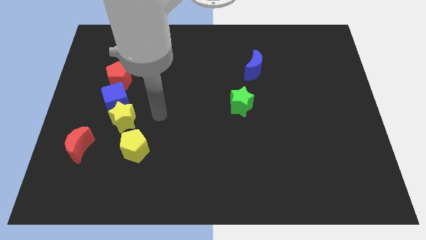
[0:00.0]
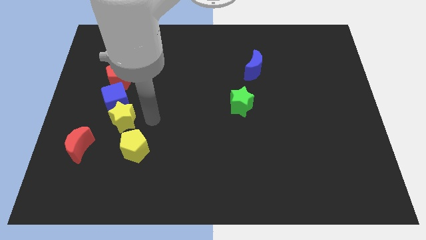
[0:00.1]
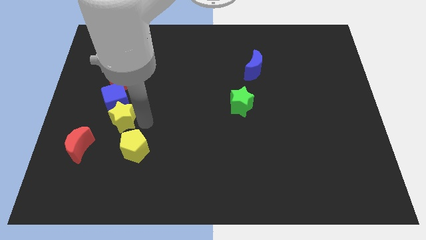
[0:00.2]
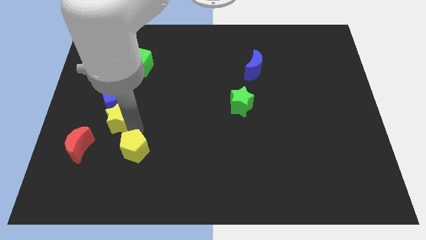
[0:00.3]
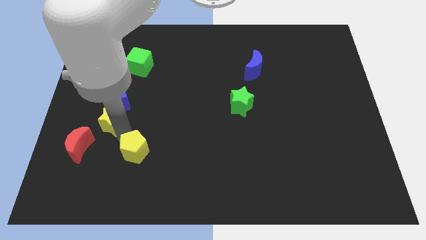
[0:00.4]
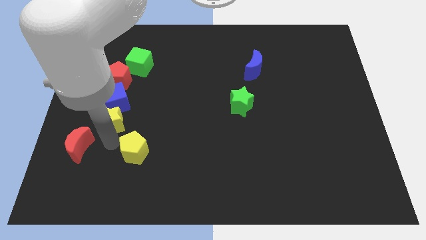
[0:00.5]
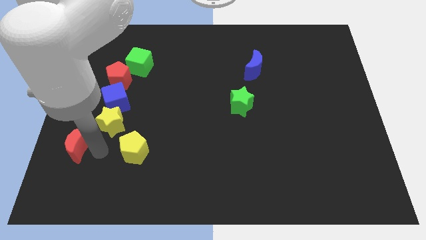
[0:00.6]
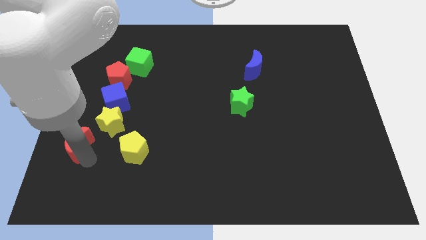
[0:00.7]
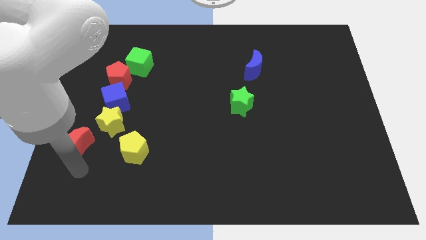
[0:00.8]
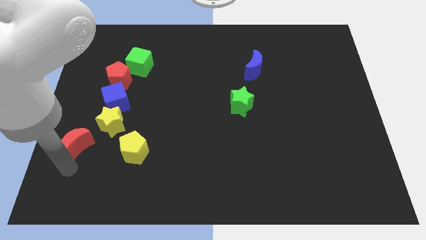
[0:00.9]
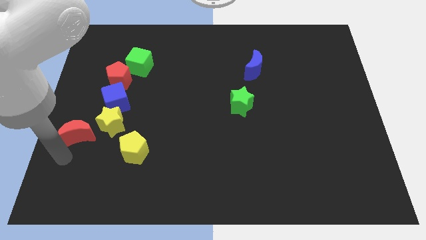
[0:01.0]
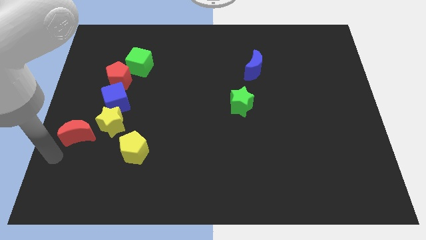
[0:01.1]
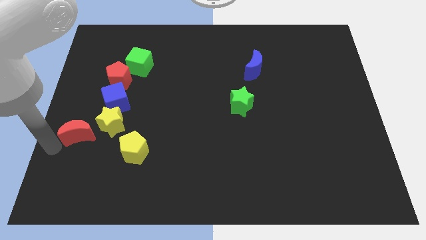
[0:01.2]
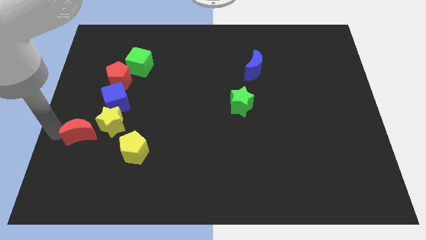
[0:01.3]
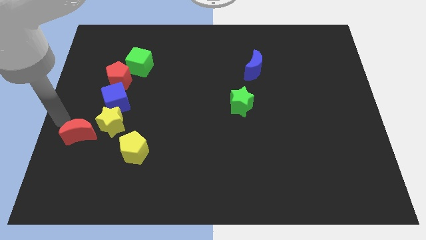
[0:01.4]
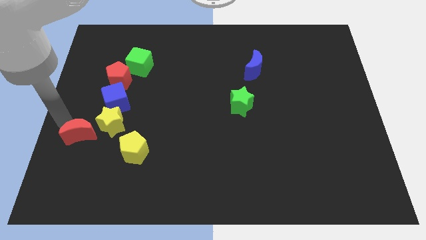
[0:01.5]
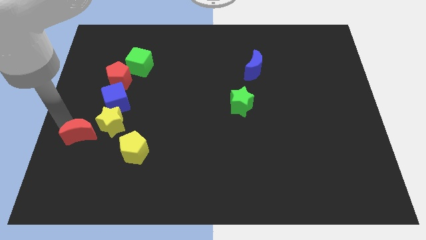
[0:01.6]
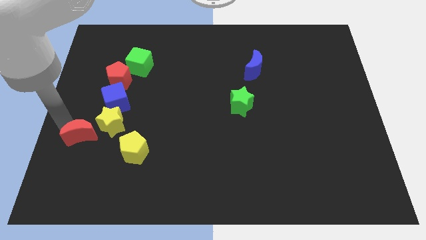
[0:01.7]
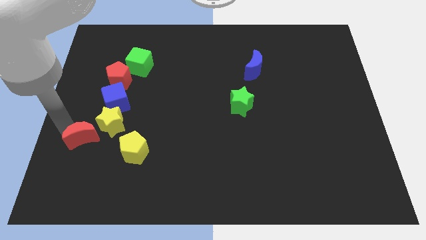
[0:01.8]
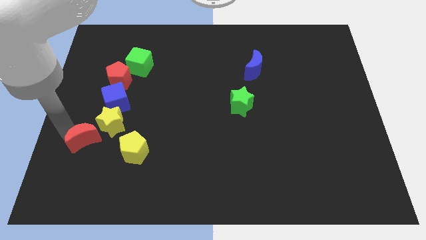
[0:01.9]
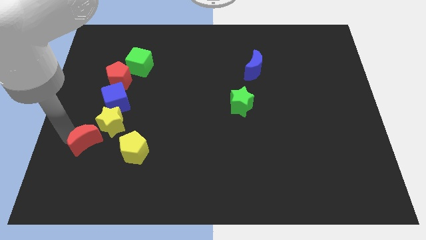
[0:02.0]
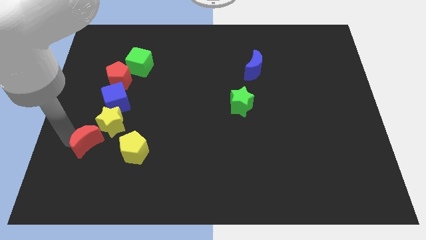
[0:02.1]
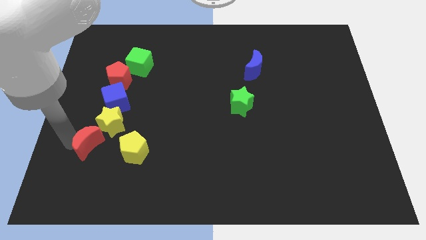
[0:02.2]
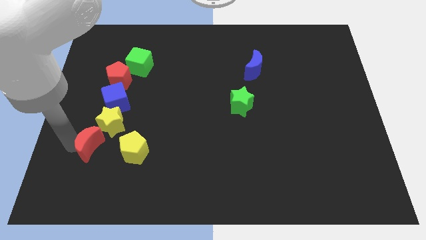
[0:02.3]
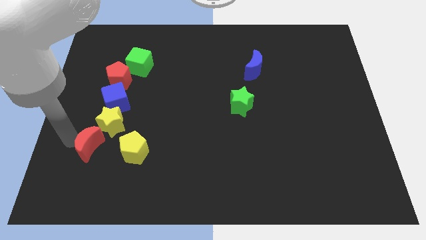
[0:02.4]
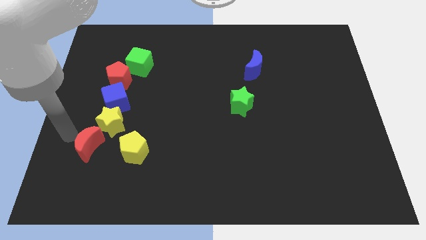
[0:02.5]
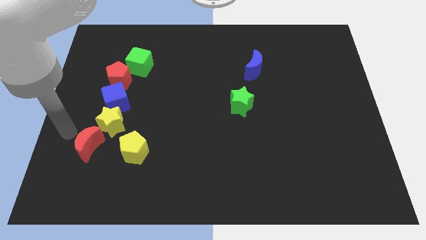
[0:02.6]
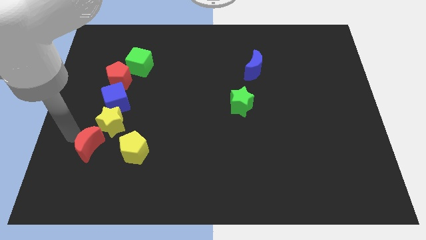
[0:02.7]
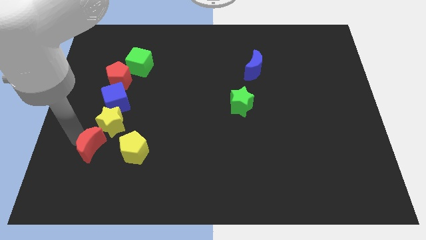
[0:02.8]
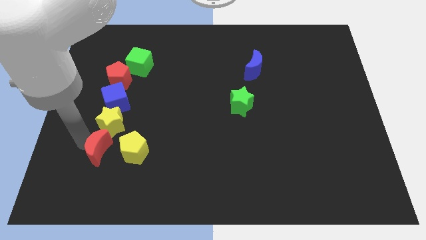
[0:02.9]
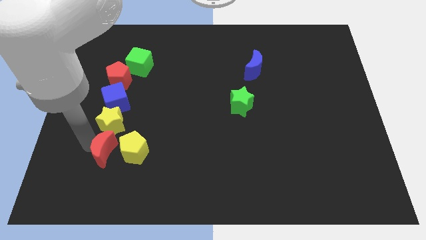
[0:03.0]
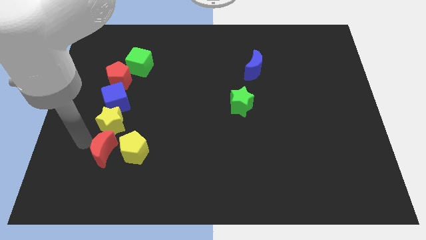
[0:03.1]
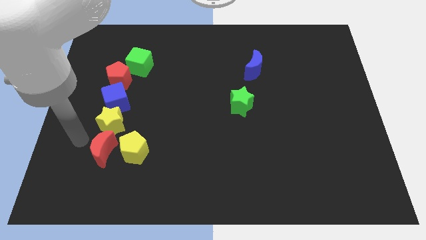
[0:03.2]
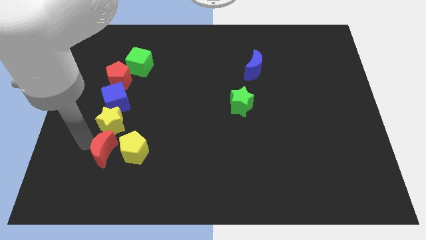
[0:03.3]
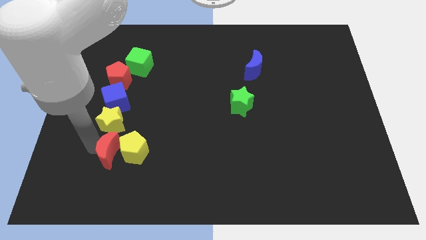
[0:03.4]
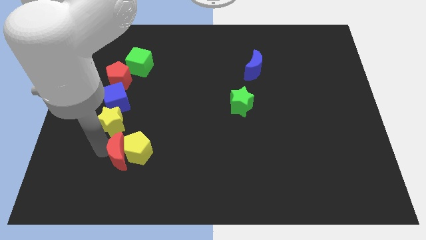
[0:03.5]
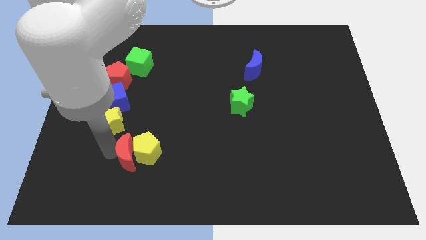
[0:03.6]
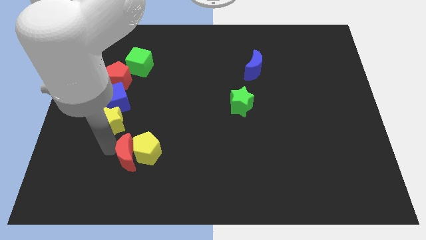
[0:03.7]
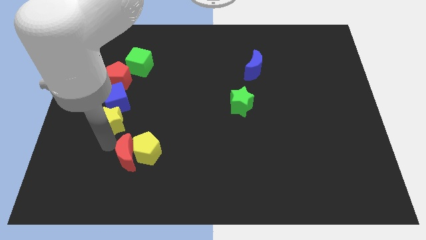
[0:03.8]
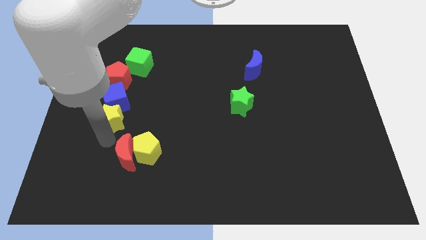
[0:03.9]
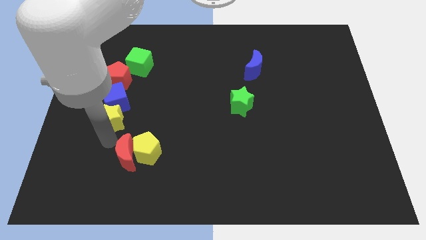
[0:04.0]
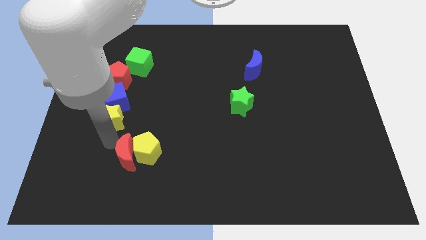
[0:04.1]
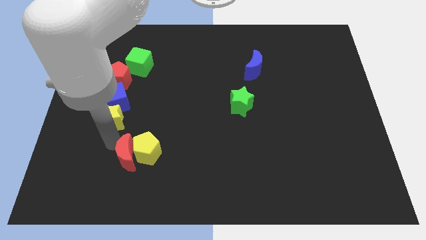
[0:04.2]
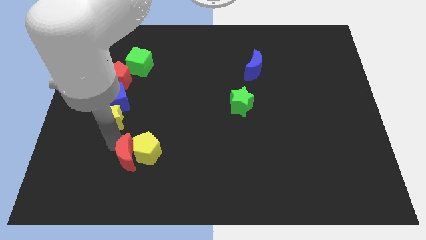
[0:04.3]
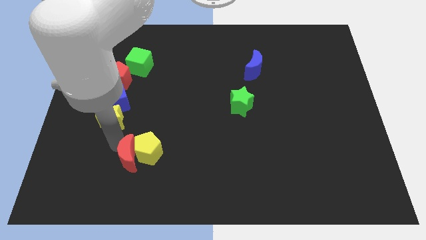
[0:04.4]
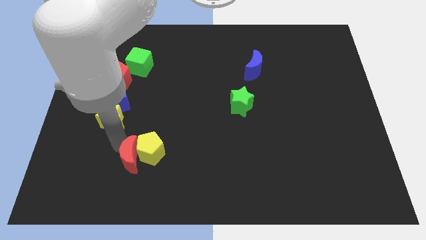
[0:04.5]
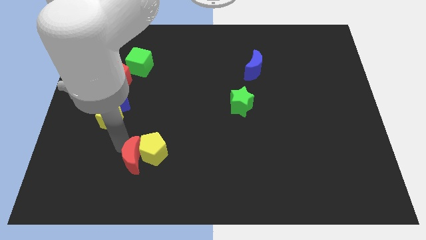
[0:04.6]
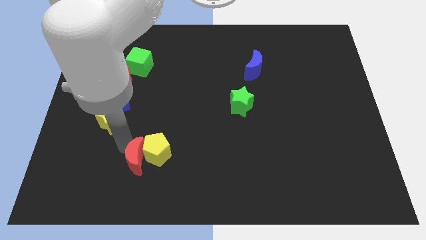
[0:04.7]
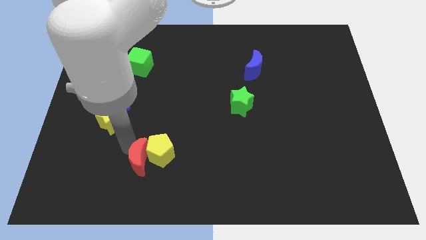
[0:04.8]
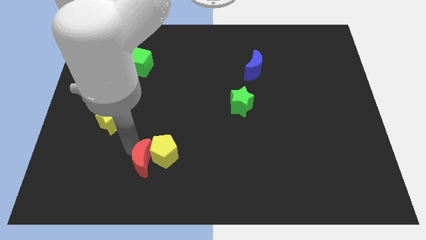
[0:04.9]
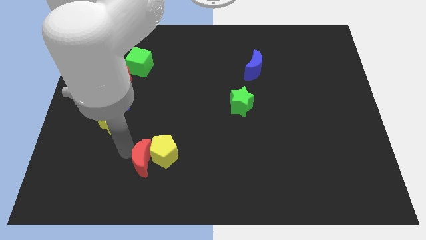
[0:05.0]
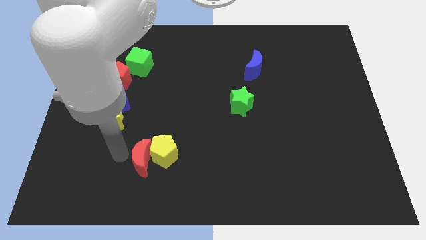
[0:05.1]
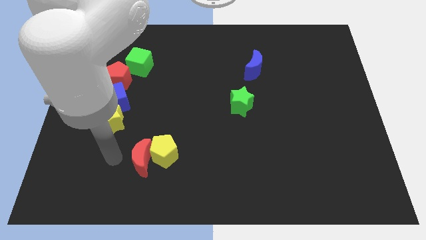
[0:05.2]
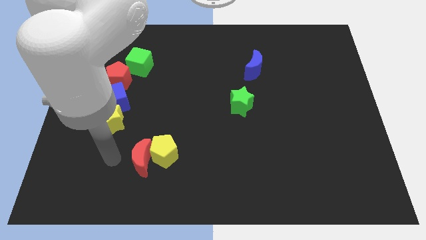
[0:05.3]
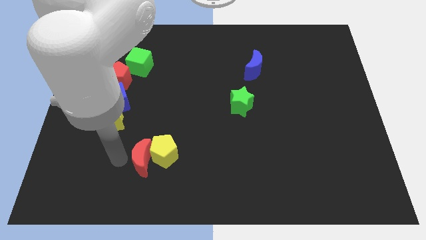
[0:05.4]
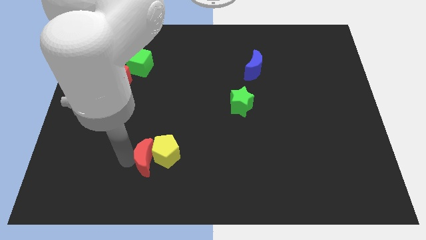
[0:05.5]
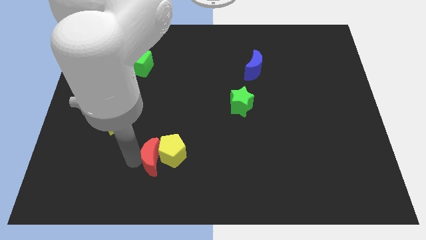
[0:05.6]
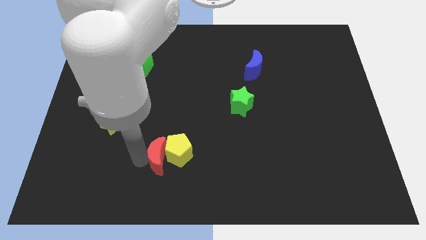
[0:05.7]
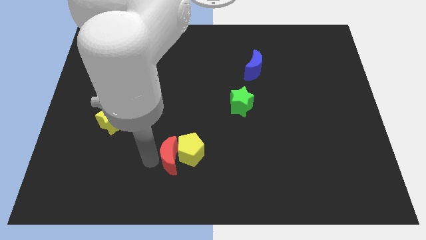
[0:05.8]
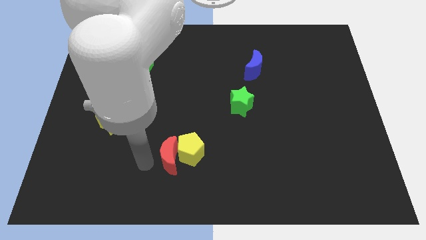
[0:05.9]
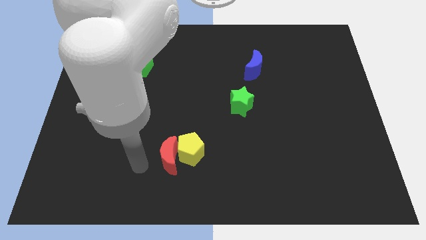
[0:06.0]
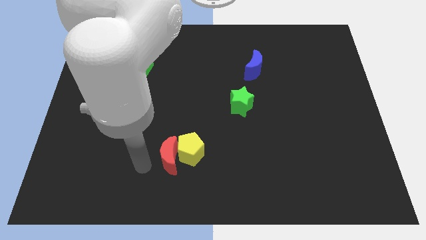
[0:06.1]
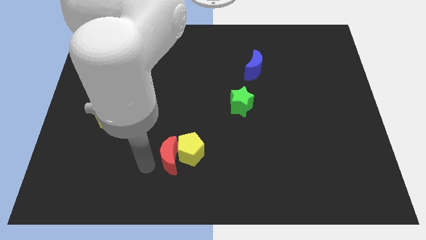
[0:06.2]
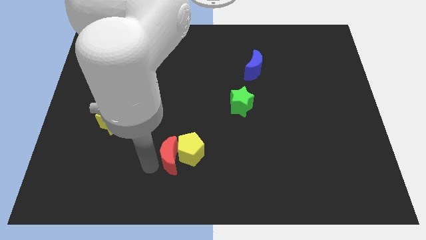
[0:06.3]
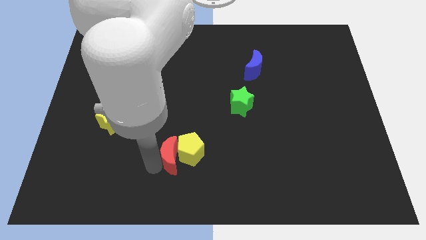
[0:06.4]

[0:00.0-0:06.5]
slide the red moon right

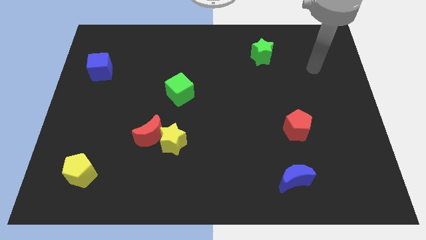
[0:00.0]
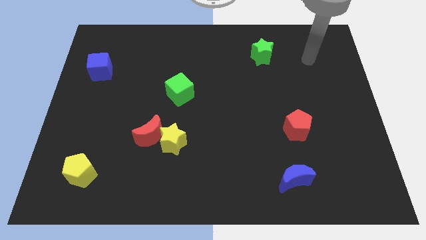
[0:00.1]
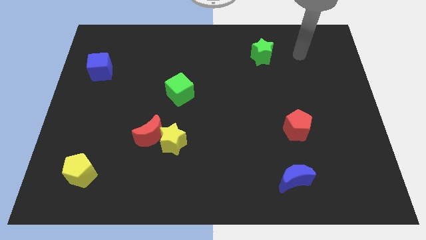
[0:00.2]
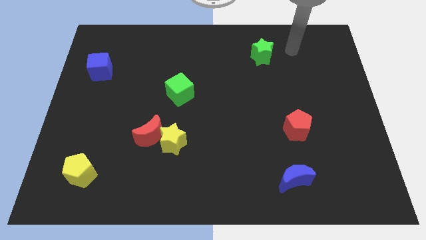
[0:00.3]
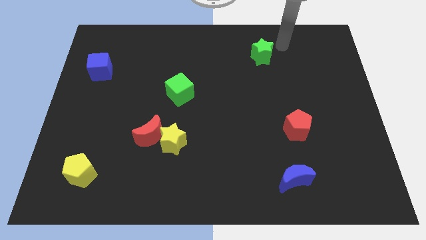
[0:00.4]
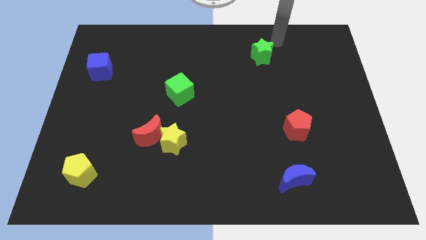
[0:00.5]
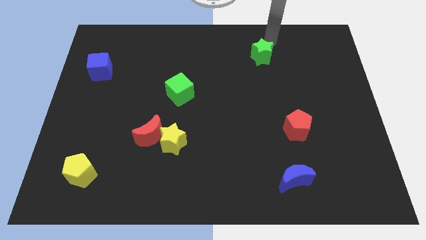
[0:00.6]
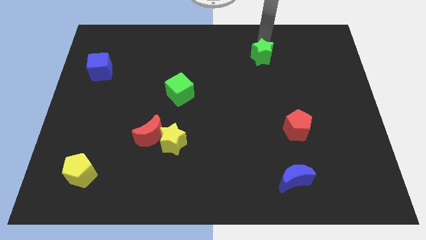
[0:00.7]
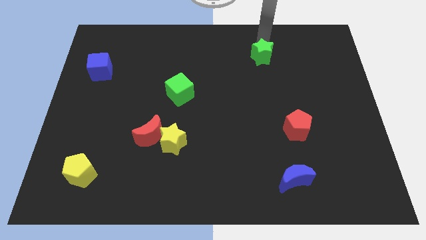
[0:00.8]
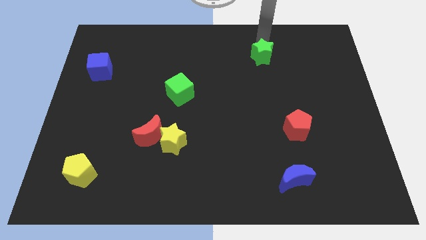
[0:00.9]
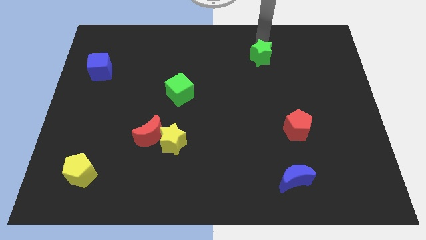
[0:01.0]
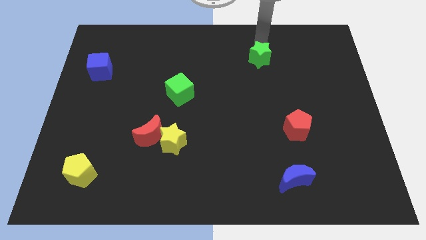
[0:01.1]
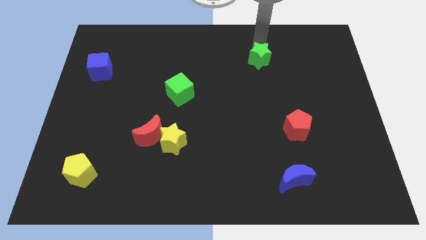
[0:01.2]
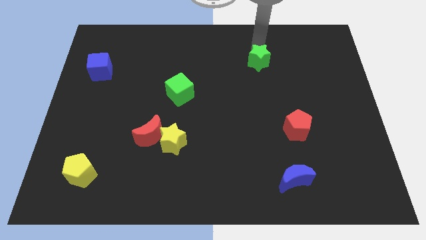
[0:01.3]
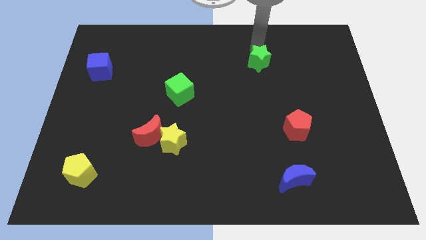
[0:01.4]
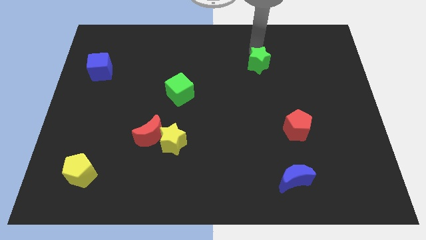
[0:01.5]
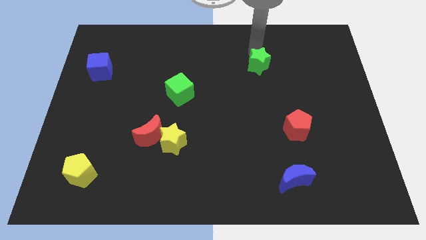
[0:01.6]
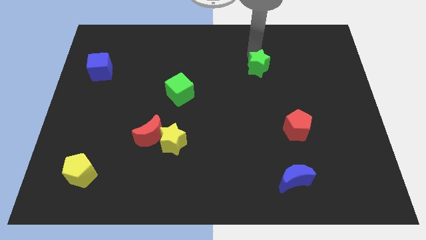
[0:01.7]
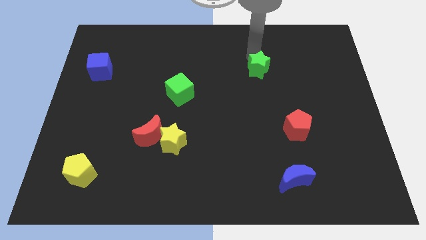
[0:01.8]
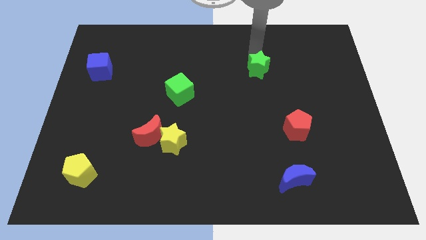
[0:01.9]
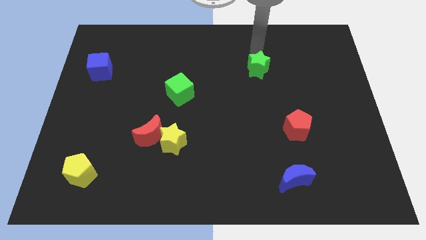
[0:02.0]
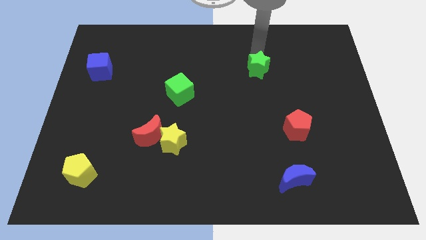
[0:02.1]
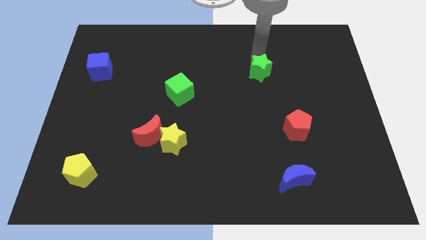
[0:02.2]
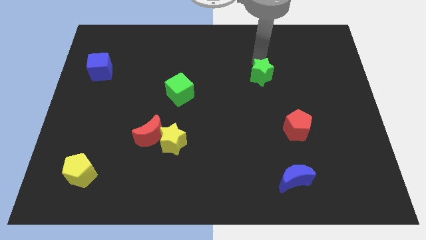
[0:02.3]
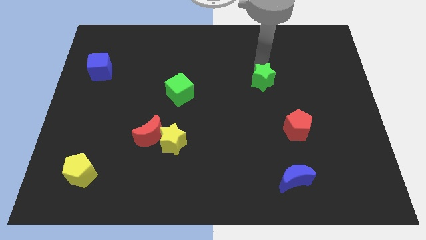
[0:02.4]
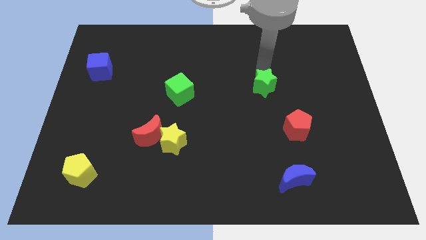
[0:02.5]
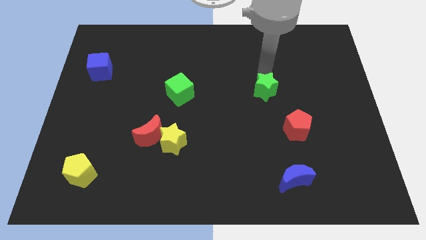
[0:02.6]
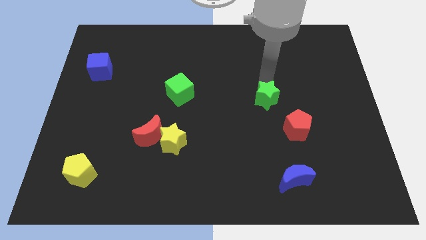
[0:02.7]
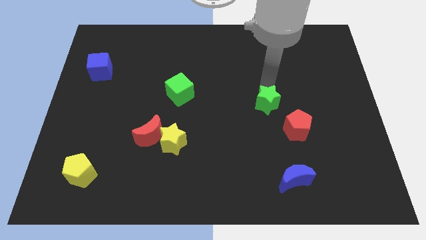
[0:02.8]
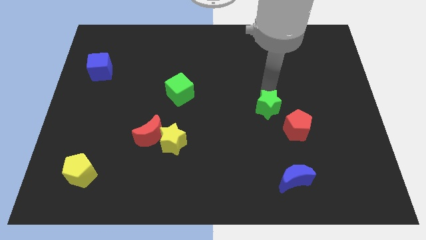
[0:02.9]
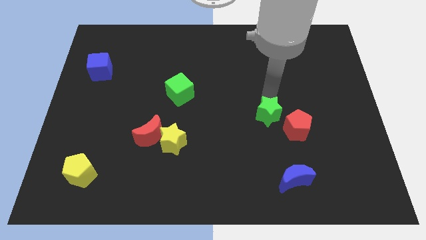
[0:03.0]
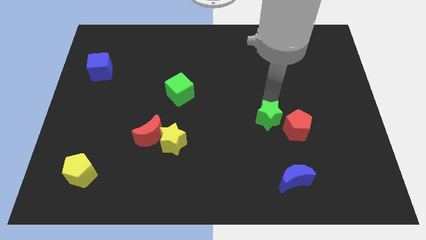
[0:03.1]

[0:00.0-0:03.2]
push the green star downwards
